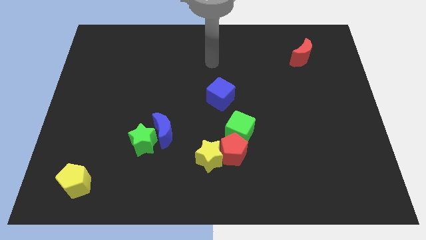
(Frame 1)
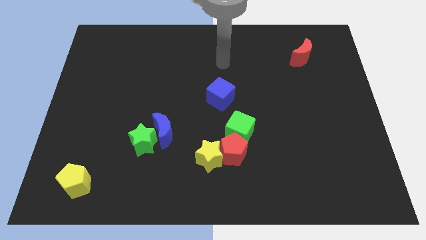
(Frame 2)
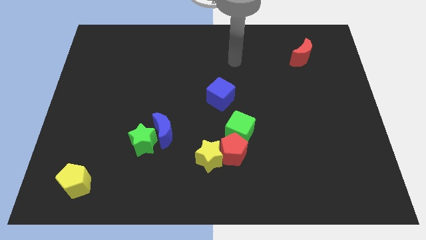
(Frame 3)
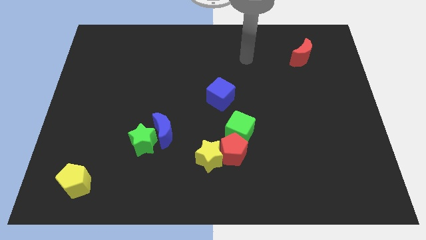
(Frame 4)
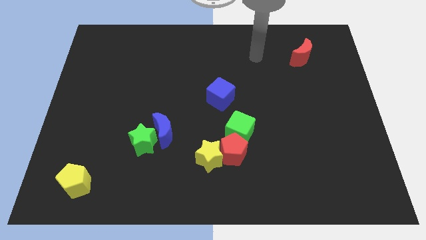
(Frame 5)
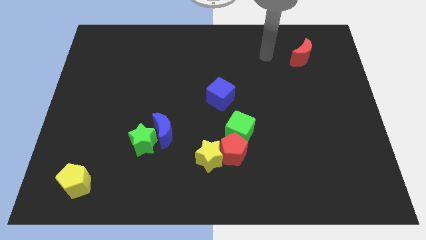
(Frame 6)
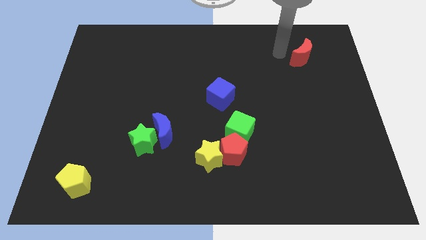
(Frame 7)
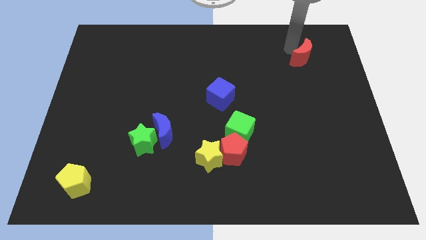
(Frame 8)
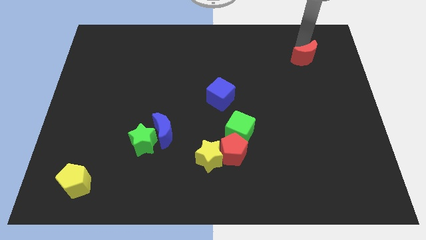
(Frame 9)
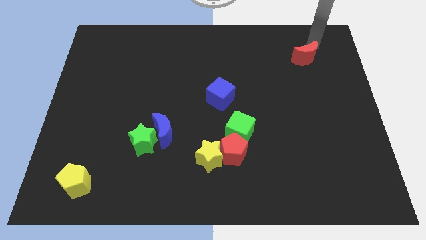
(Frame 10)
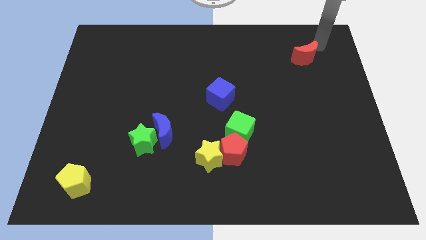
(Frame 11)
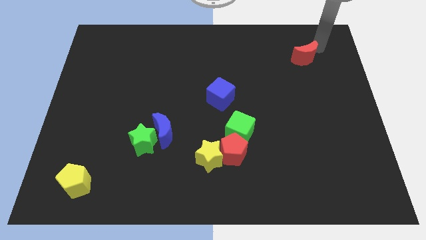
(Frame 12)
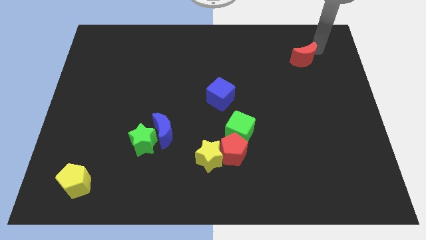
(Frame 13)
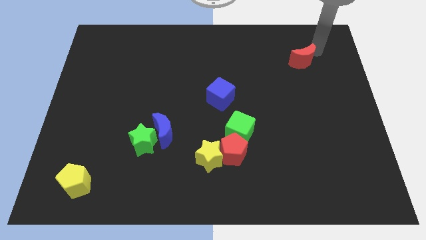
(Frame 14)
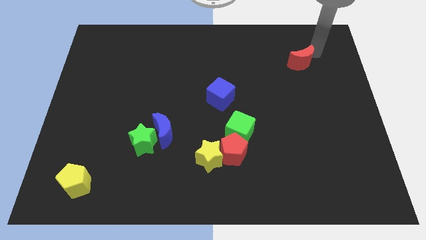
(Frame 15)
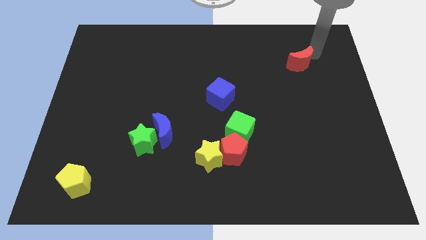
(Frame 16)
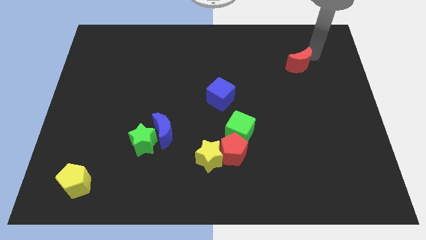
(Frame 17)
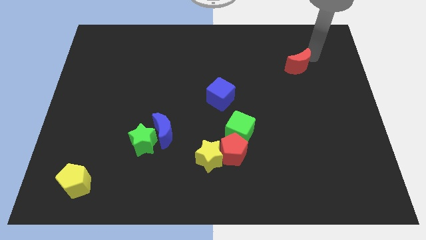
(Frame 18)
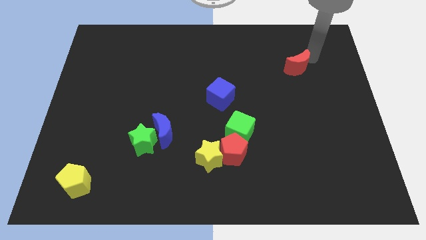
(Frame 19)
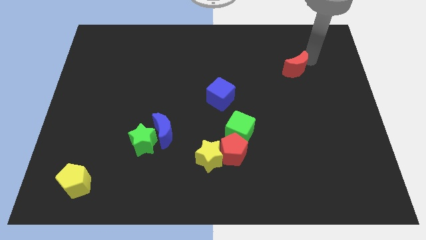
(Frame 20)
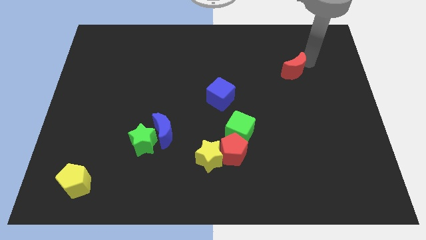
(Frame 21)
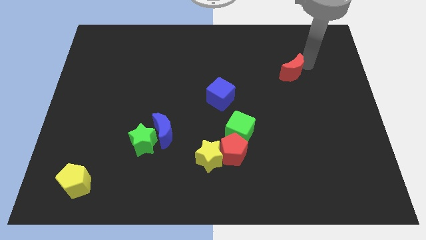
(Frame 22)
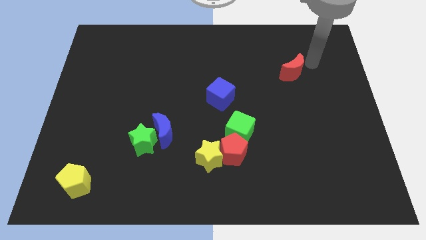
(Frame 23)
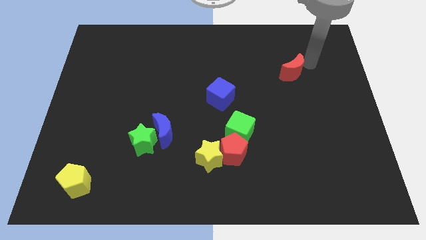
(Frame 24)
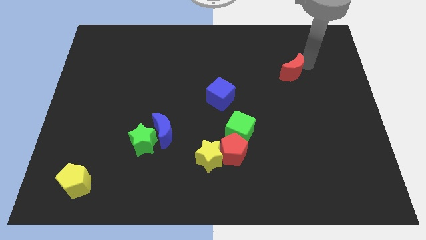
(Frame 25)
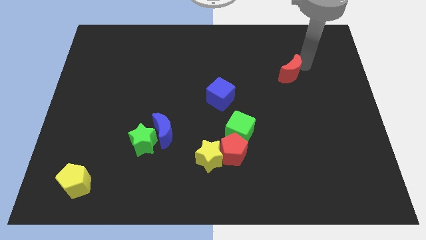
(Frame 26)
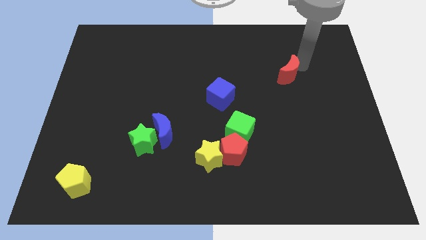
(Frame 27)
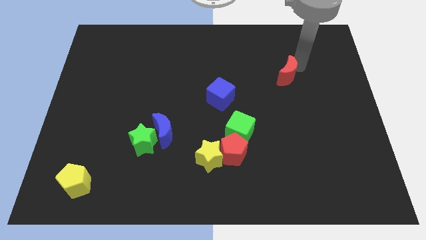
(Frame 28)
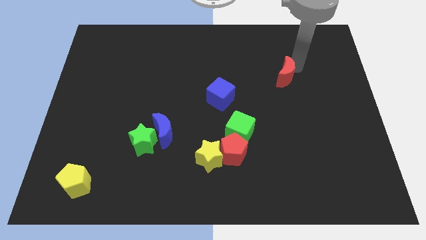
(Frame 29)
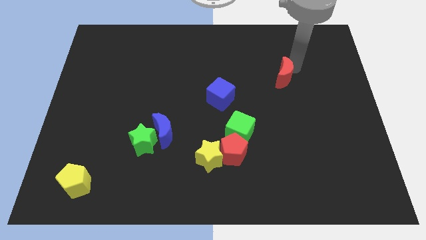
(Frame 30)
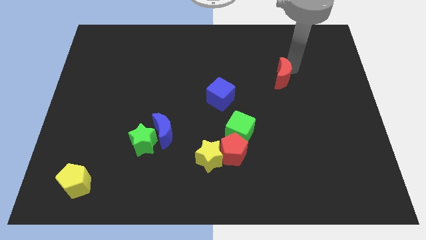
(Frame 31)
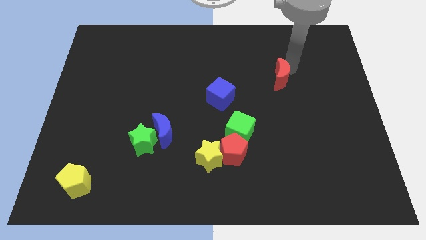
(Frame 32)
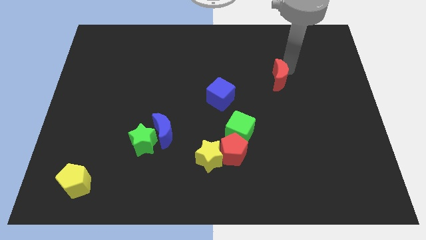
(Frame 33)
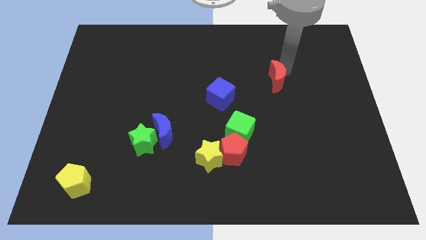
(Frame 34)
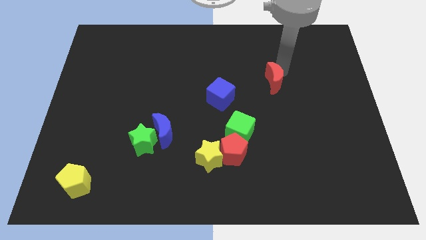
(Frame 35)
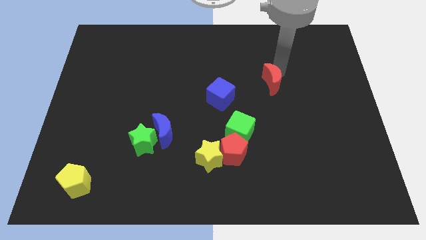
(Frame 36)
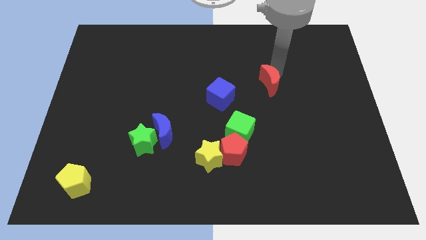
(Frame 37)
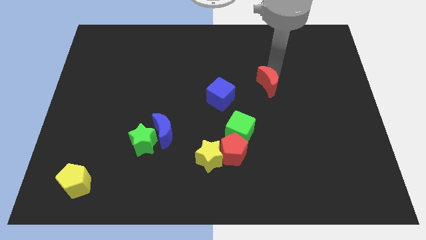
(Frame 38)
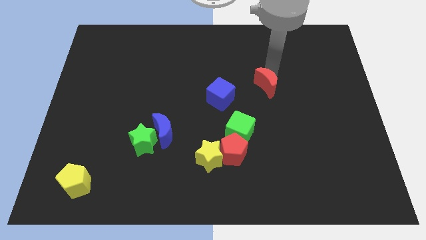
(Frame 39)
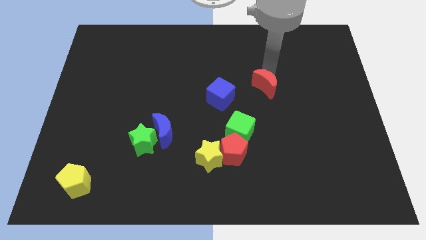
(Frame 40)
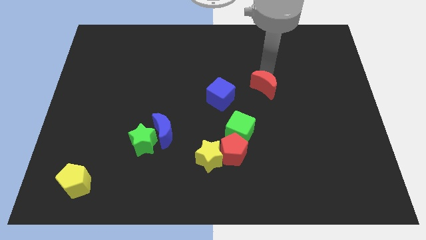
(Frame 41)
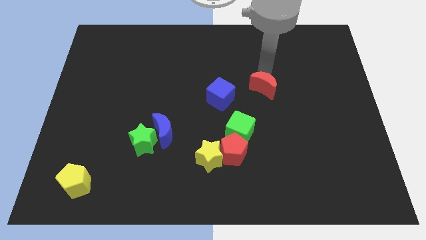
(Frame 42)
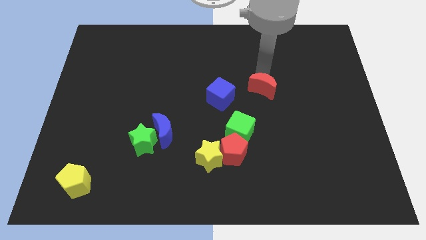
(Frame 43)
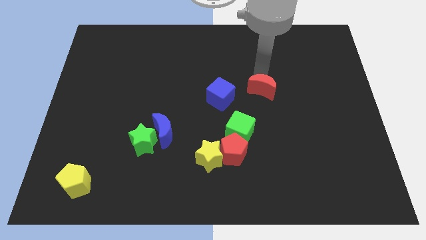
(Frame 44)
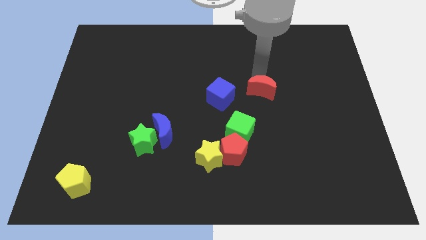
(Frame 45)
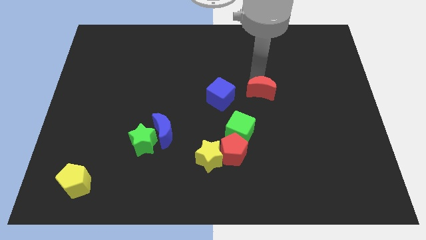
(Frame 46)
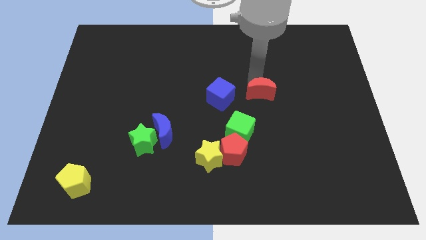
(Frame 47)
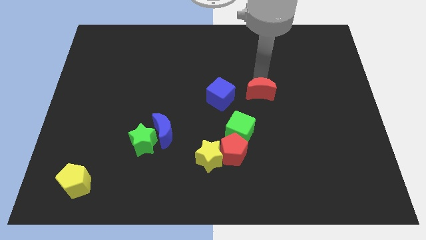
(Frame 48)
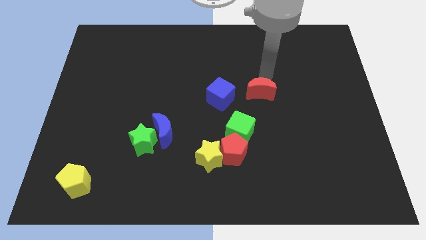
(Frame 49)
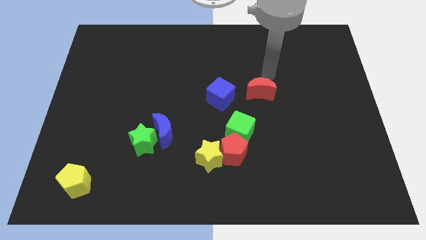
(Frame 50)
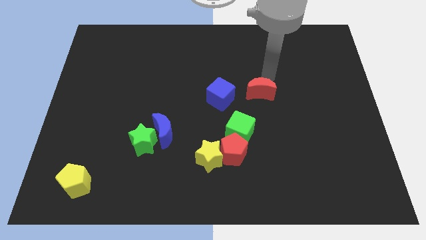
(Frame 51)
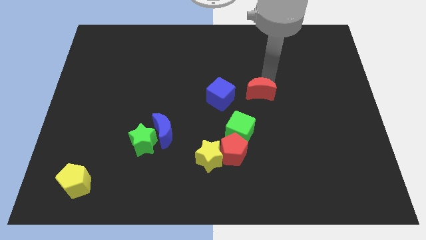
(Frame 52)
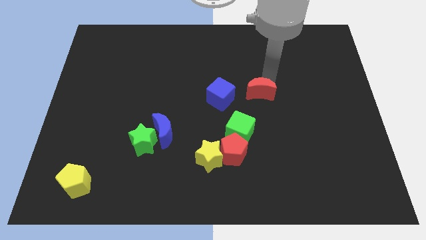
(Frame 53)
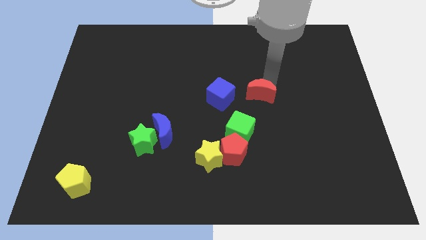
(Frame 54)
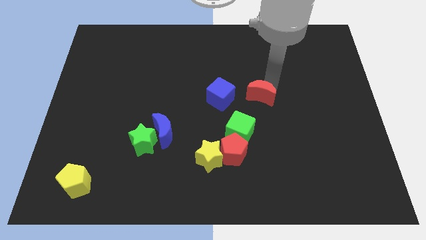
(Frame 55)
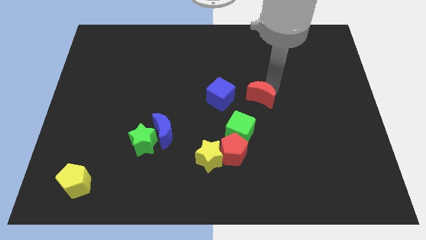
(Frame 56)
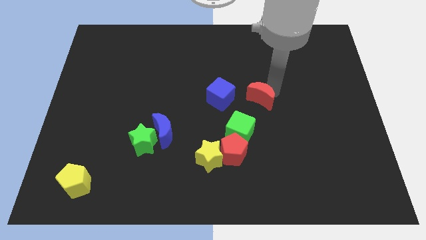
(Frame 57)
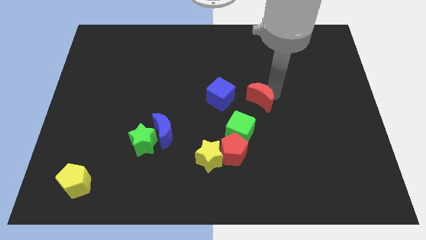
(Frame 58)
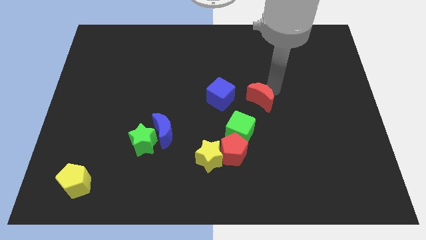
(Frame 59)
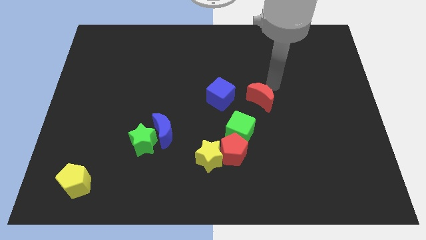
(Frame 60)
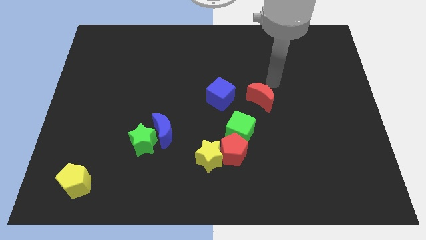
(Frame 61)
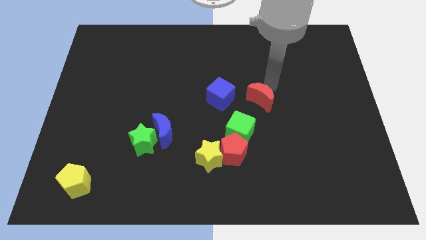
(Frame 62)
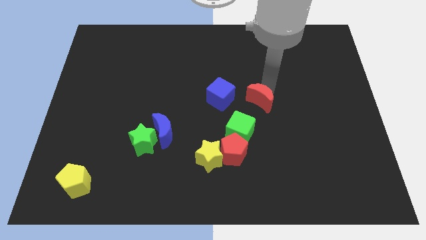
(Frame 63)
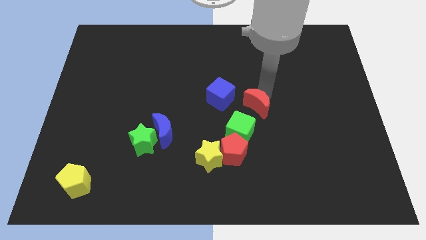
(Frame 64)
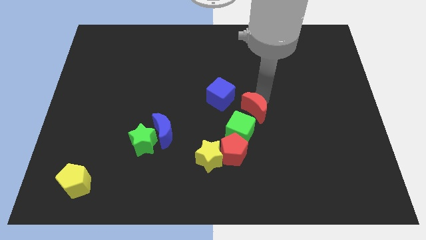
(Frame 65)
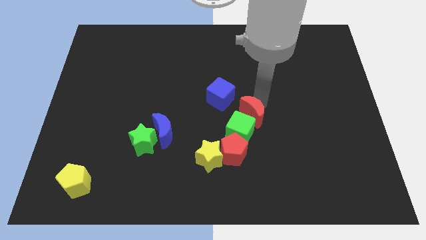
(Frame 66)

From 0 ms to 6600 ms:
slide the red moon towards the green cube

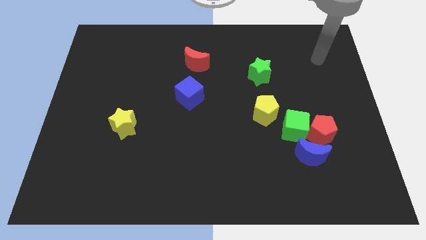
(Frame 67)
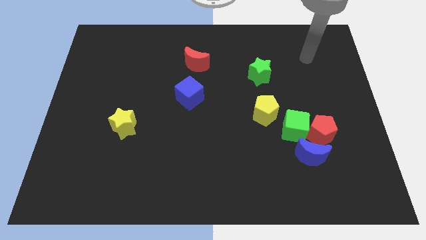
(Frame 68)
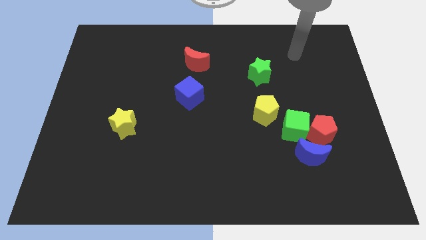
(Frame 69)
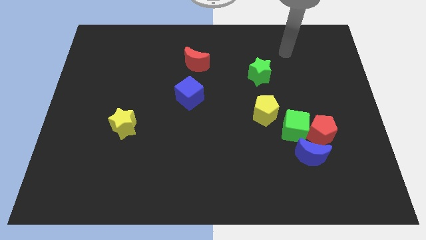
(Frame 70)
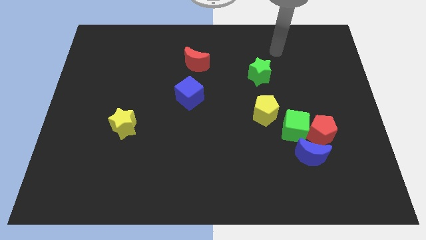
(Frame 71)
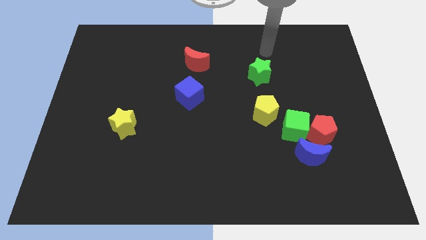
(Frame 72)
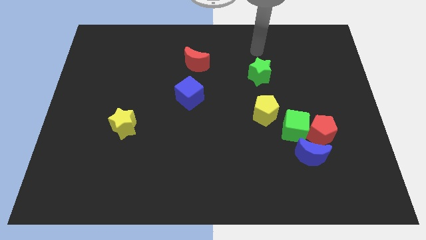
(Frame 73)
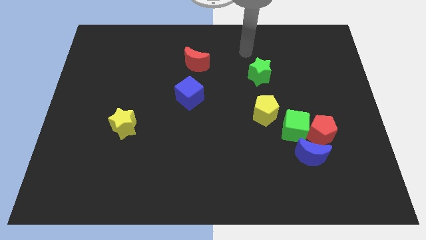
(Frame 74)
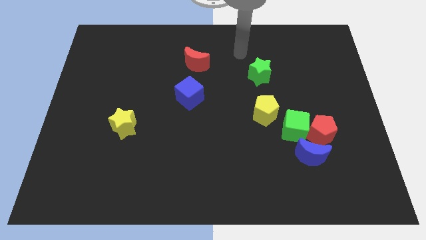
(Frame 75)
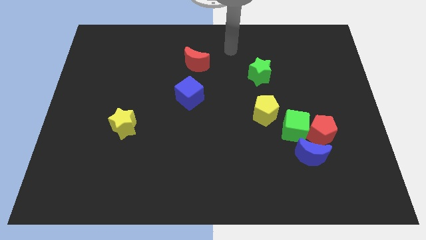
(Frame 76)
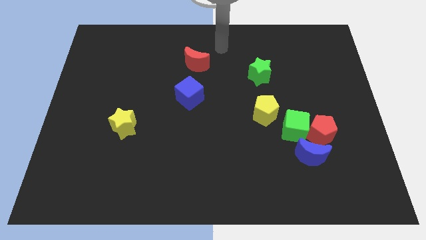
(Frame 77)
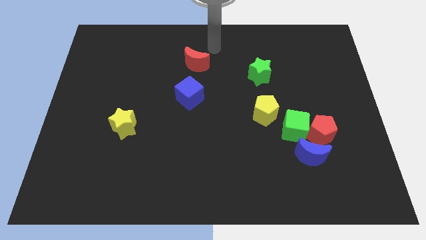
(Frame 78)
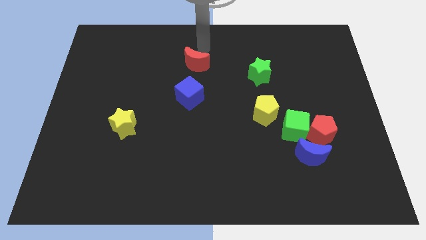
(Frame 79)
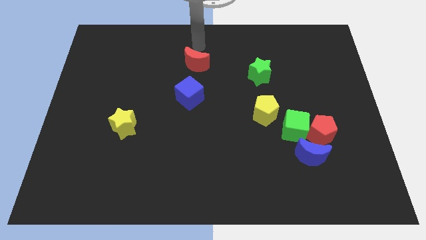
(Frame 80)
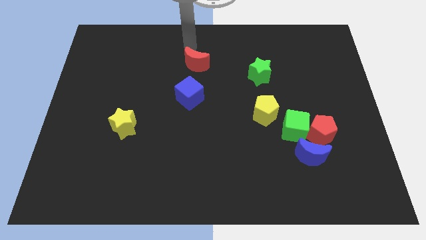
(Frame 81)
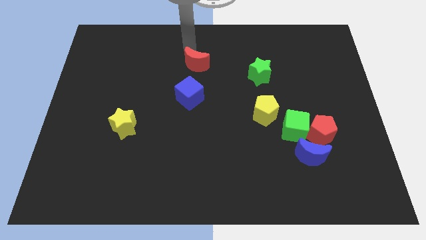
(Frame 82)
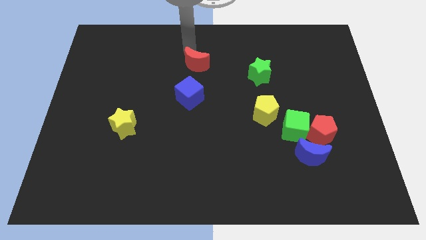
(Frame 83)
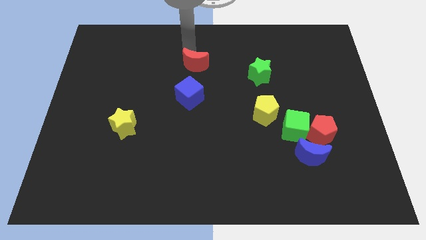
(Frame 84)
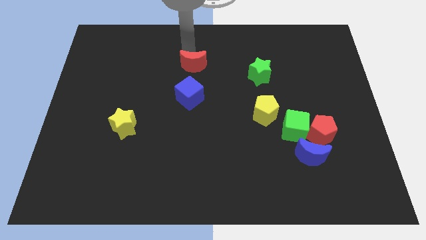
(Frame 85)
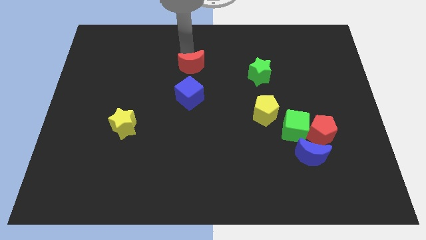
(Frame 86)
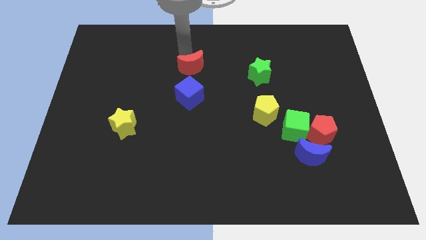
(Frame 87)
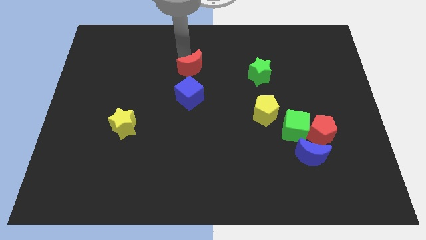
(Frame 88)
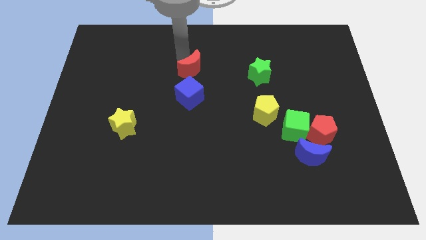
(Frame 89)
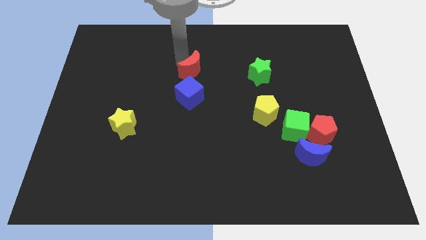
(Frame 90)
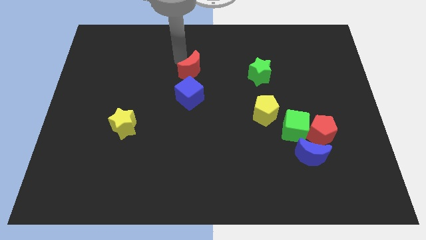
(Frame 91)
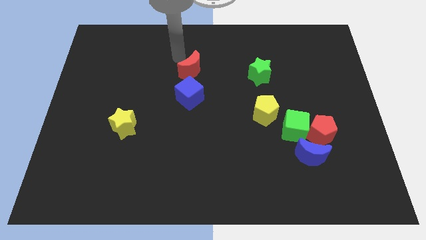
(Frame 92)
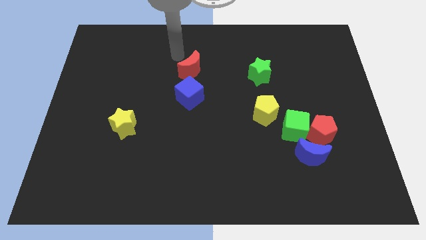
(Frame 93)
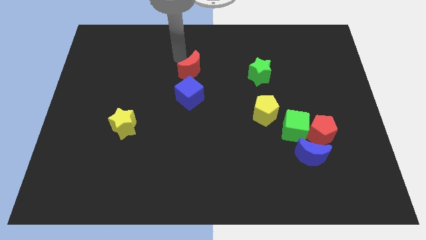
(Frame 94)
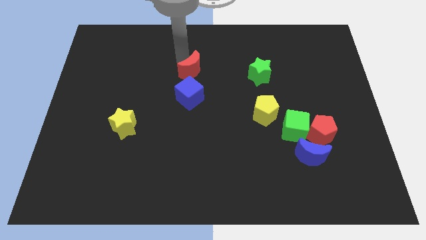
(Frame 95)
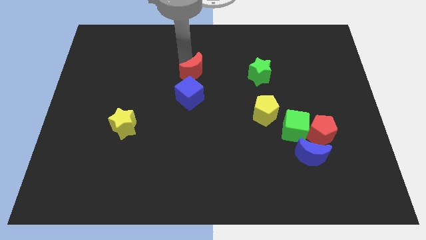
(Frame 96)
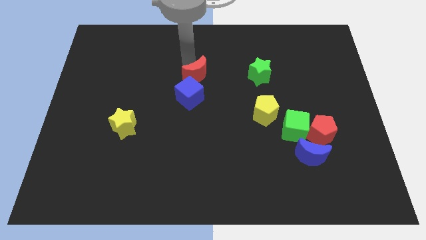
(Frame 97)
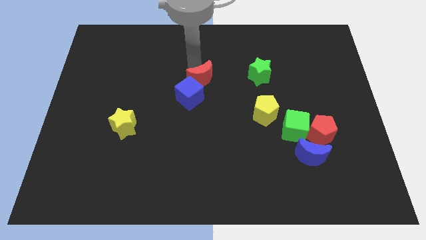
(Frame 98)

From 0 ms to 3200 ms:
move the red moon to the blue cube
